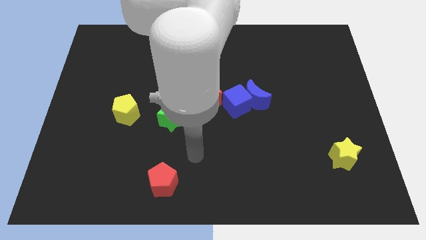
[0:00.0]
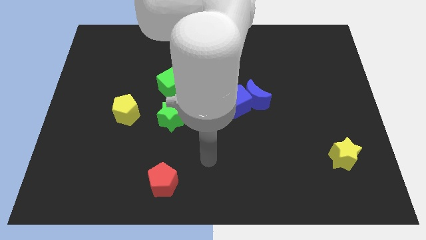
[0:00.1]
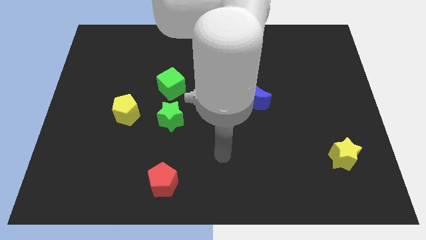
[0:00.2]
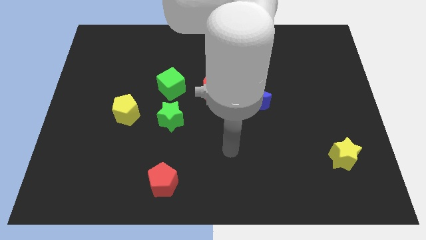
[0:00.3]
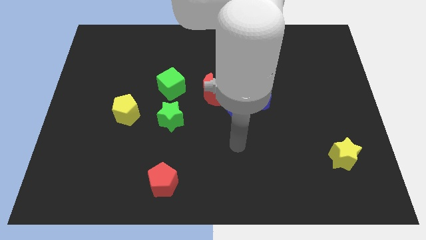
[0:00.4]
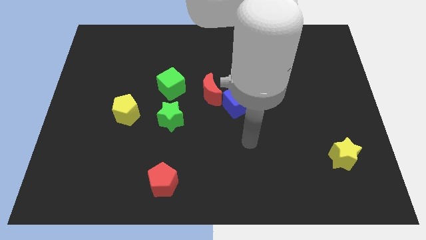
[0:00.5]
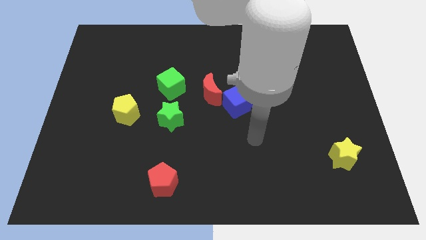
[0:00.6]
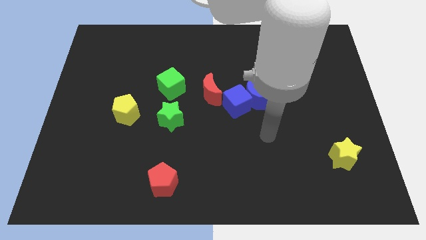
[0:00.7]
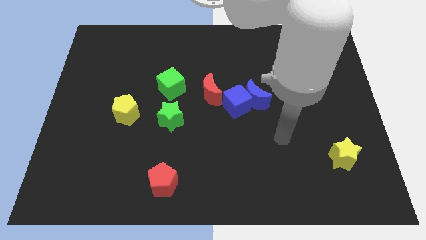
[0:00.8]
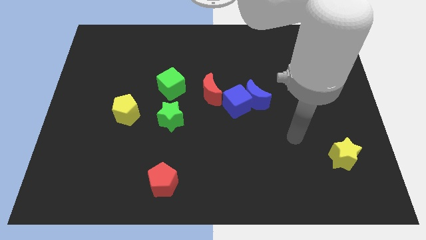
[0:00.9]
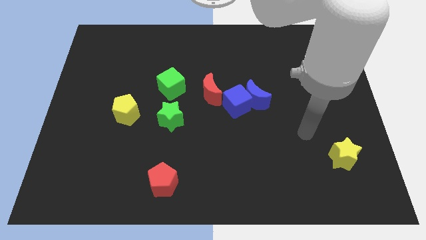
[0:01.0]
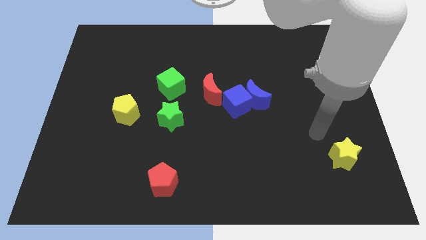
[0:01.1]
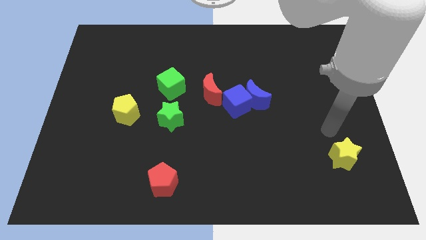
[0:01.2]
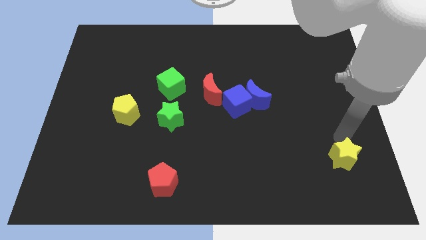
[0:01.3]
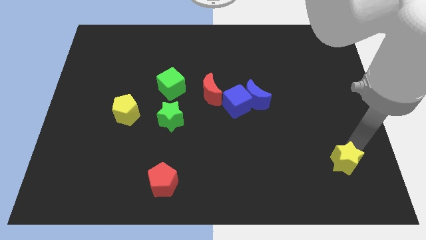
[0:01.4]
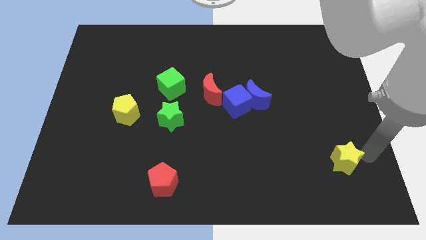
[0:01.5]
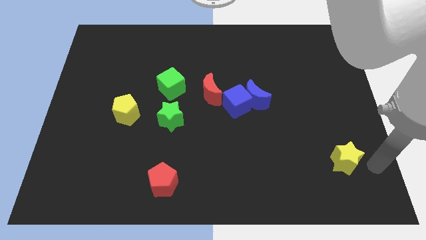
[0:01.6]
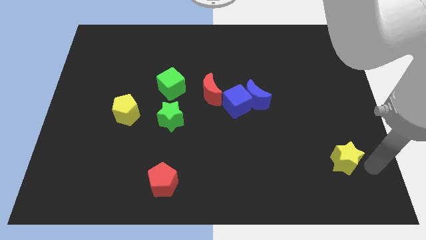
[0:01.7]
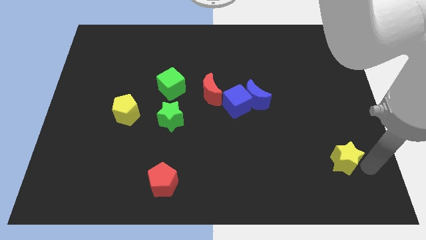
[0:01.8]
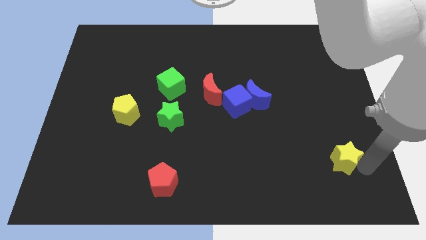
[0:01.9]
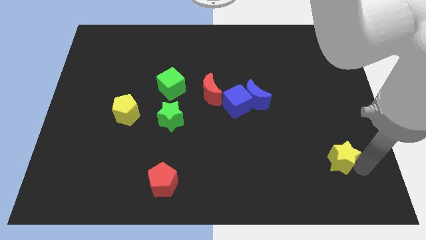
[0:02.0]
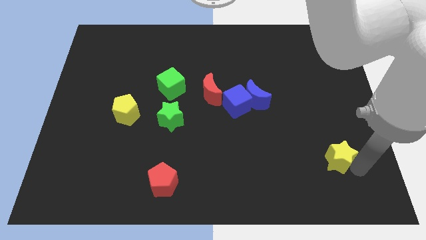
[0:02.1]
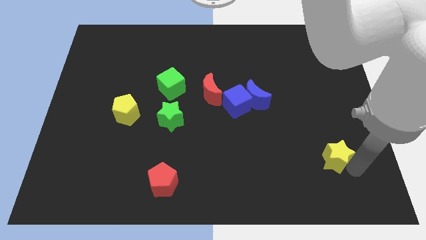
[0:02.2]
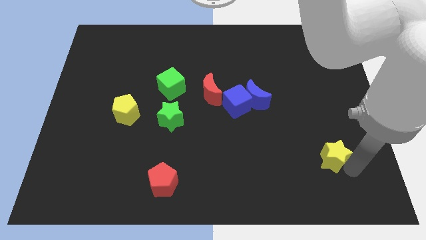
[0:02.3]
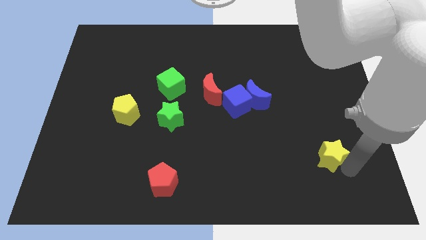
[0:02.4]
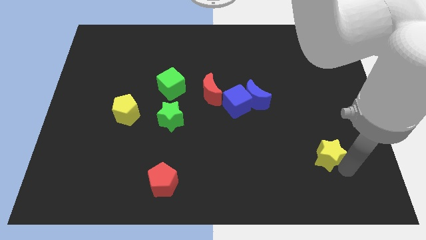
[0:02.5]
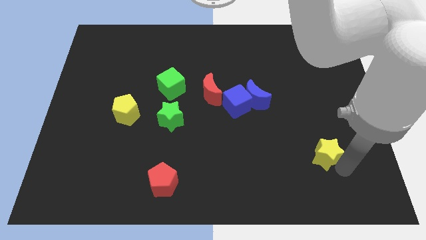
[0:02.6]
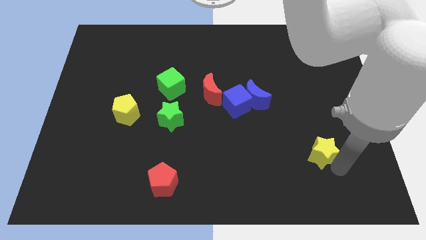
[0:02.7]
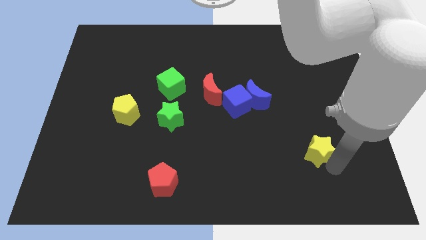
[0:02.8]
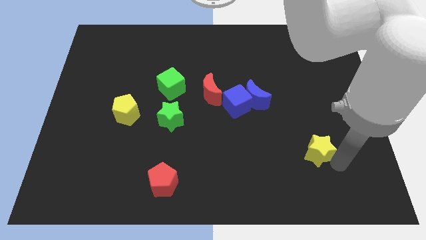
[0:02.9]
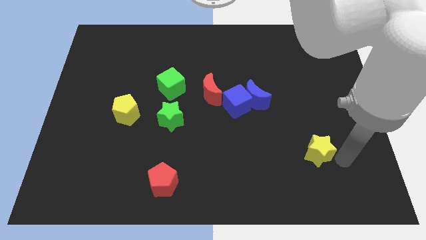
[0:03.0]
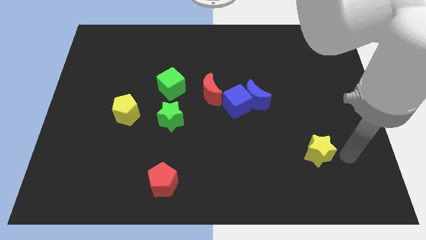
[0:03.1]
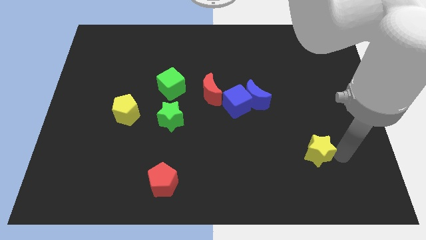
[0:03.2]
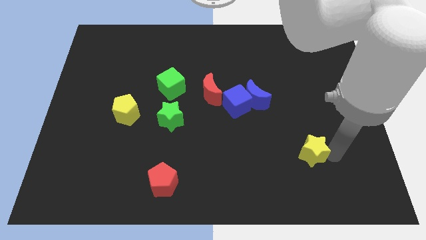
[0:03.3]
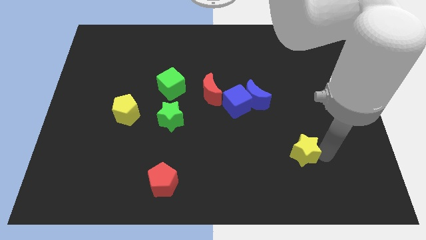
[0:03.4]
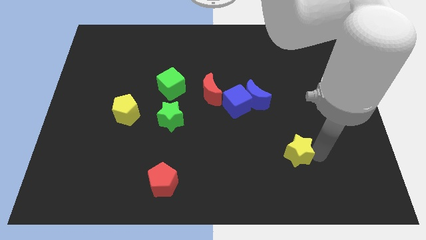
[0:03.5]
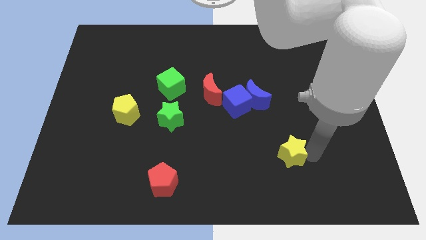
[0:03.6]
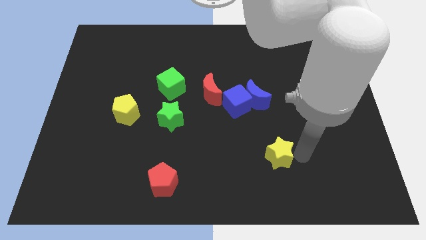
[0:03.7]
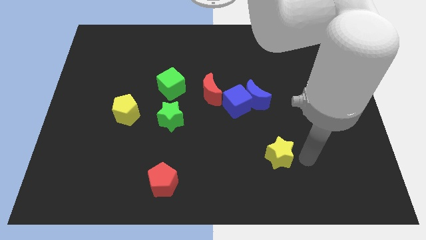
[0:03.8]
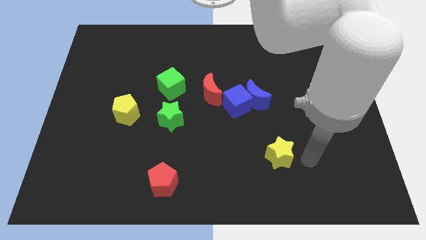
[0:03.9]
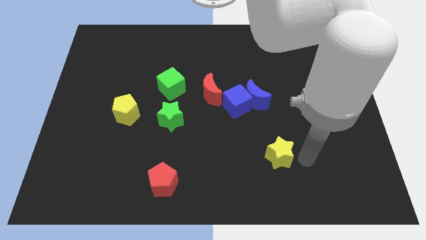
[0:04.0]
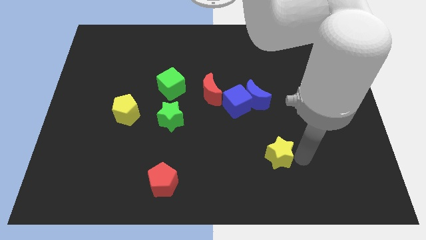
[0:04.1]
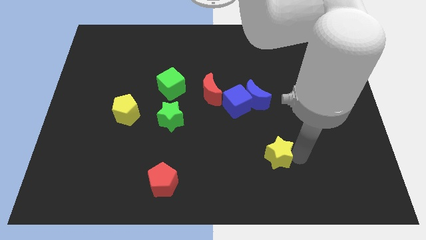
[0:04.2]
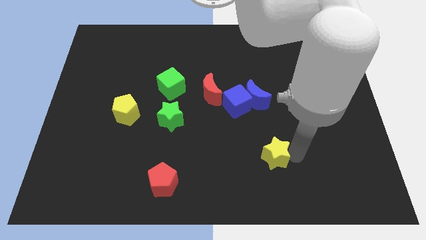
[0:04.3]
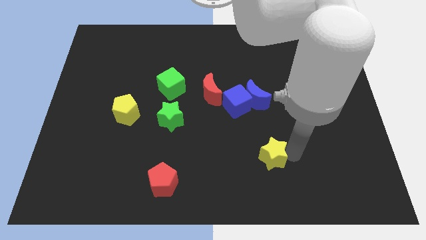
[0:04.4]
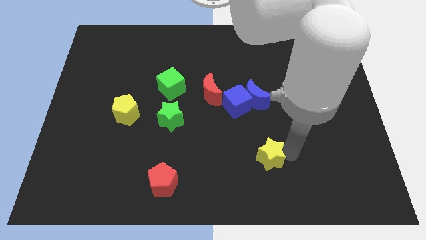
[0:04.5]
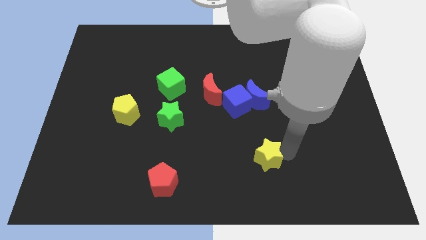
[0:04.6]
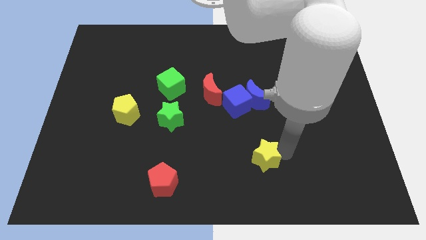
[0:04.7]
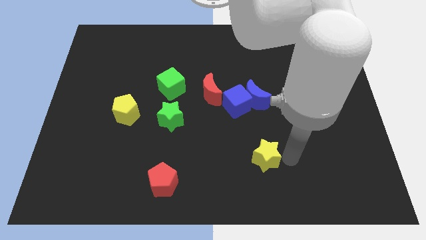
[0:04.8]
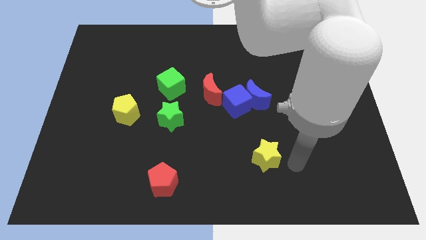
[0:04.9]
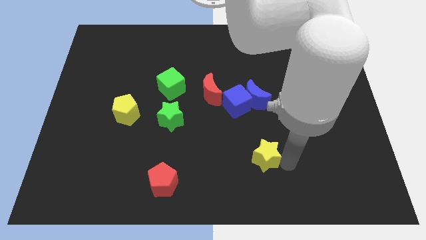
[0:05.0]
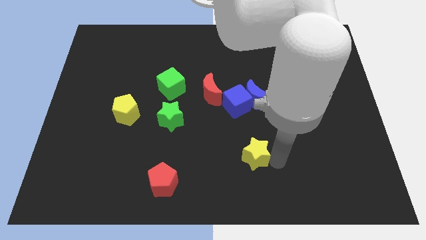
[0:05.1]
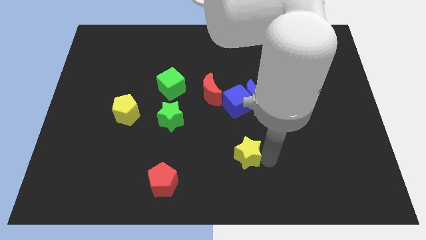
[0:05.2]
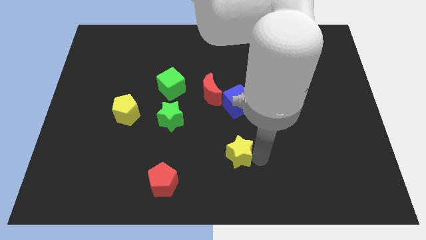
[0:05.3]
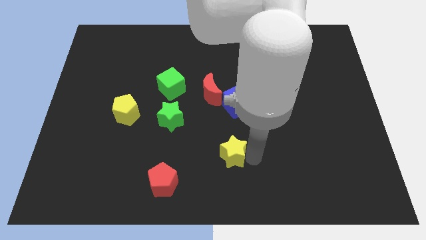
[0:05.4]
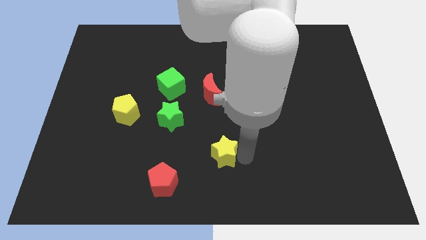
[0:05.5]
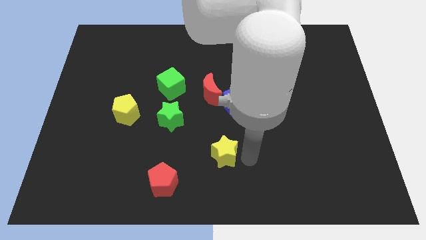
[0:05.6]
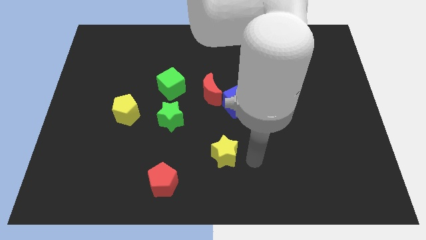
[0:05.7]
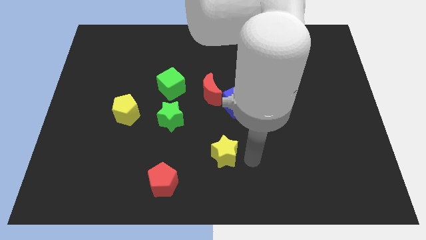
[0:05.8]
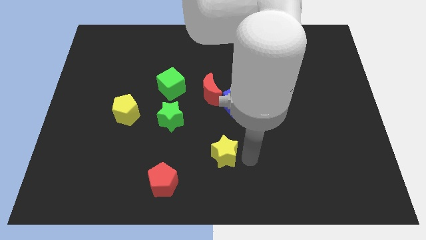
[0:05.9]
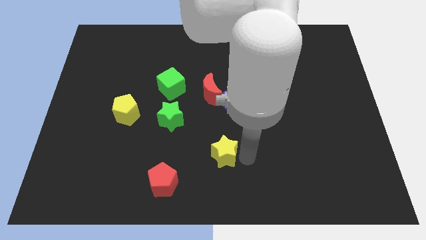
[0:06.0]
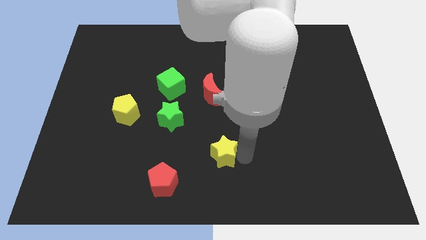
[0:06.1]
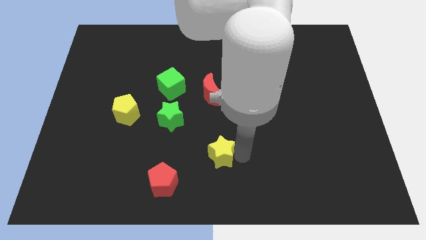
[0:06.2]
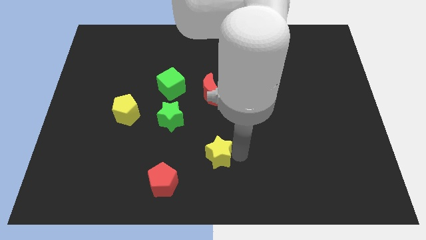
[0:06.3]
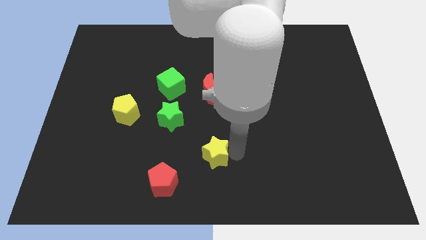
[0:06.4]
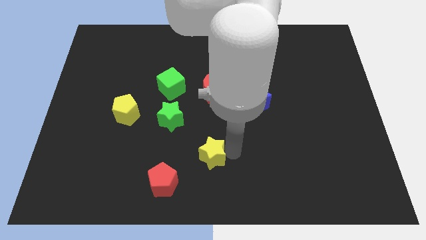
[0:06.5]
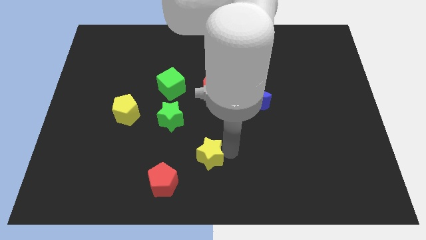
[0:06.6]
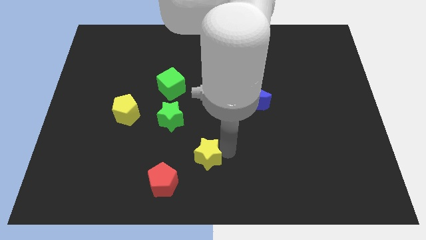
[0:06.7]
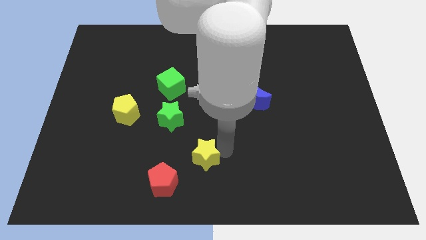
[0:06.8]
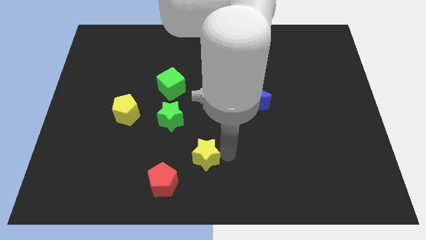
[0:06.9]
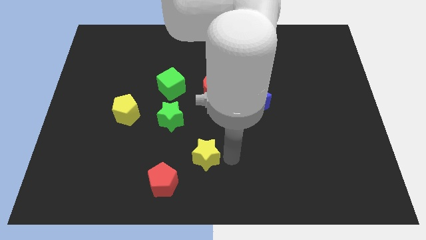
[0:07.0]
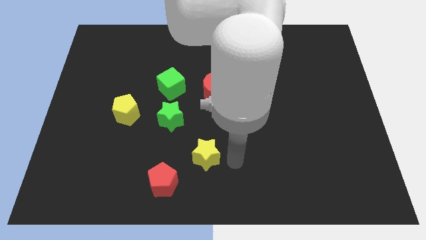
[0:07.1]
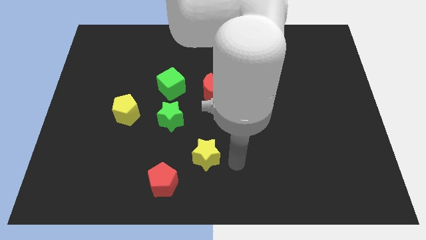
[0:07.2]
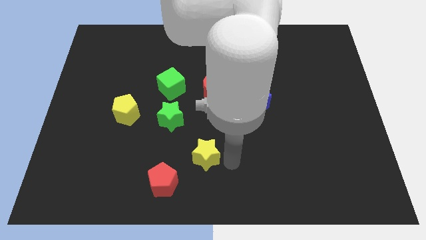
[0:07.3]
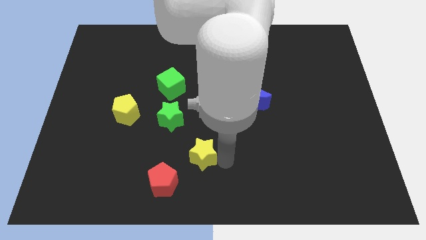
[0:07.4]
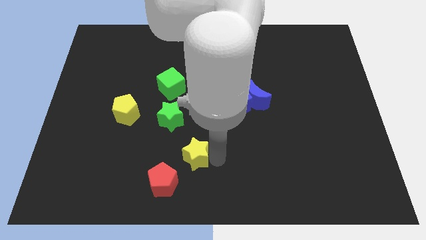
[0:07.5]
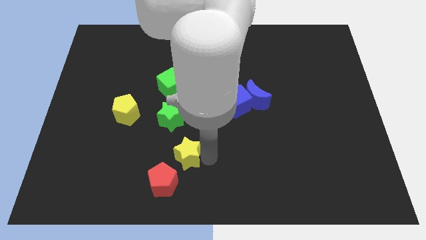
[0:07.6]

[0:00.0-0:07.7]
put the yellow star to the bottom side of the green star

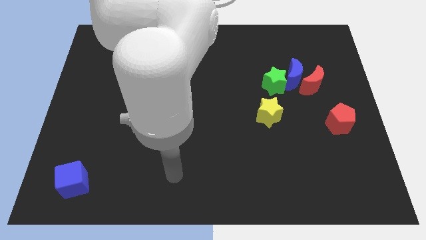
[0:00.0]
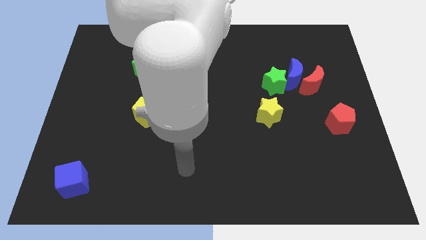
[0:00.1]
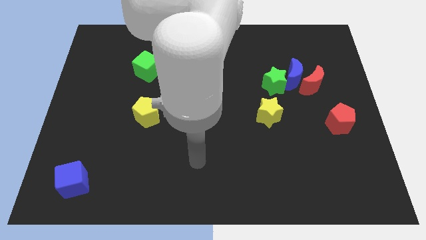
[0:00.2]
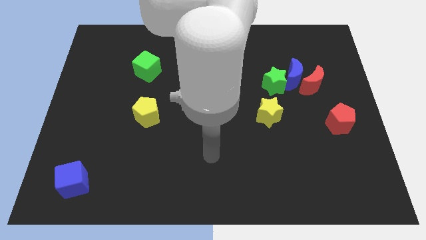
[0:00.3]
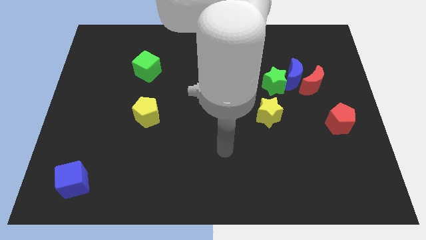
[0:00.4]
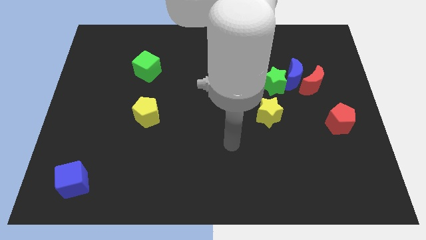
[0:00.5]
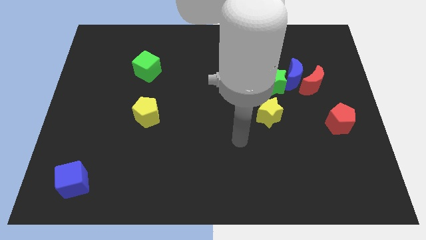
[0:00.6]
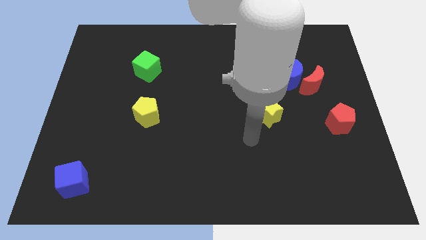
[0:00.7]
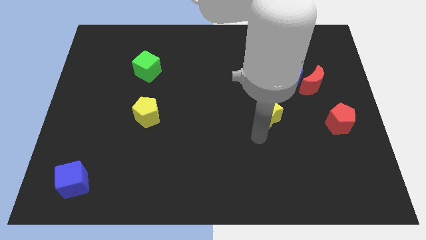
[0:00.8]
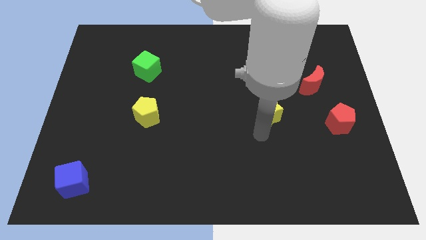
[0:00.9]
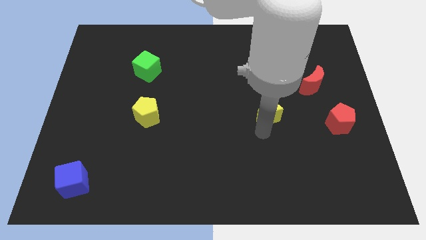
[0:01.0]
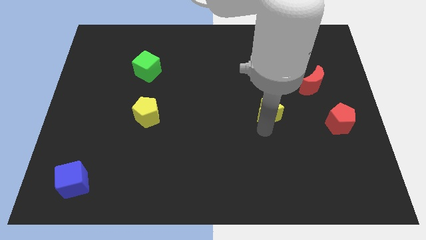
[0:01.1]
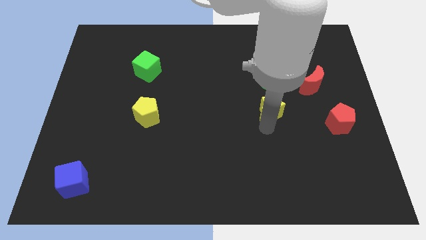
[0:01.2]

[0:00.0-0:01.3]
put the yellow star to the bottom left of the blue moon
